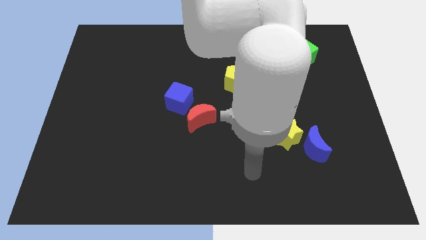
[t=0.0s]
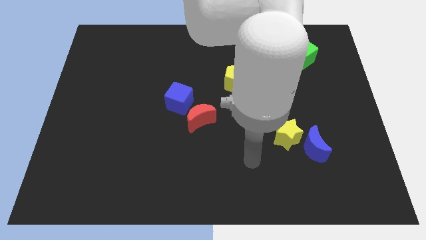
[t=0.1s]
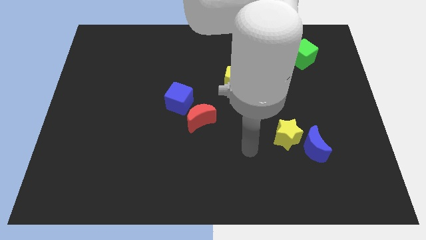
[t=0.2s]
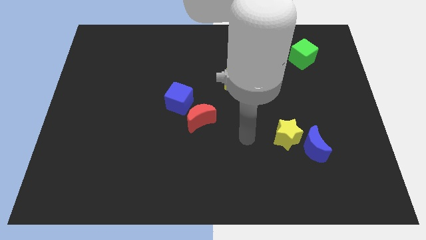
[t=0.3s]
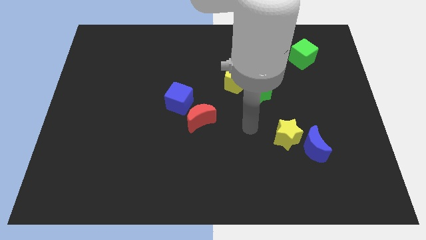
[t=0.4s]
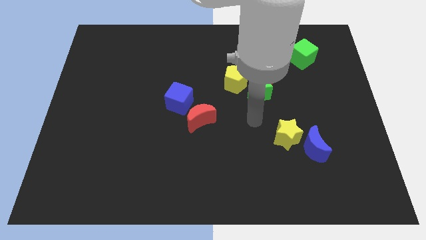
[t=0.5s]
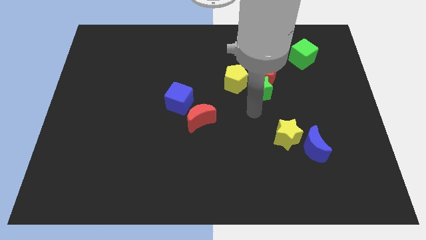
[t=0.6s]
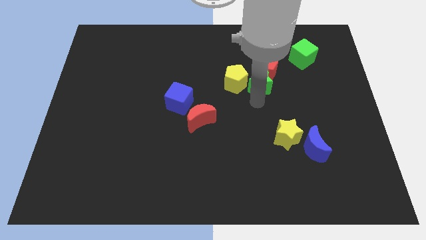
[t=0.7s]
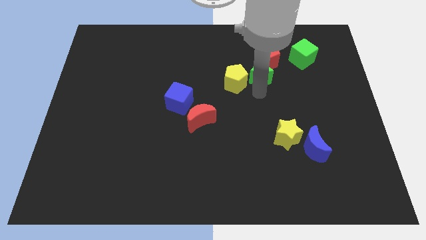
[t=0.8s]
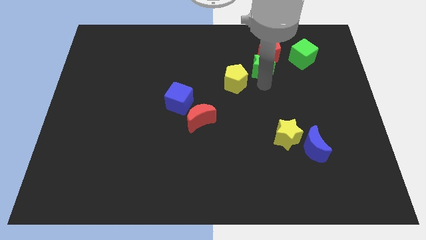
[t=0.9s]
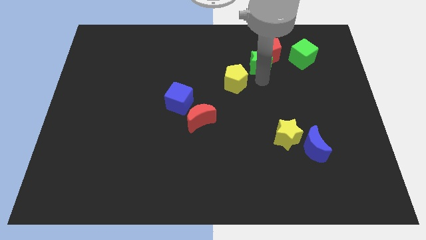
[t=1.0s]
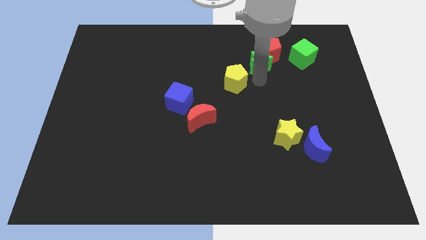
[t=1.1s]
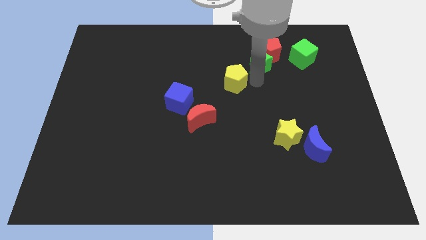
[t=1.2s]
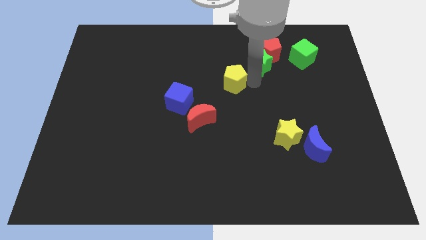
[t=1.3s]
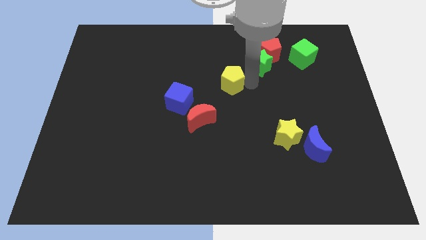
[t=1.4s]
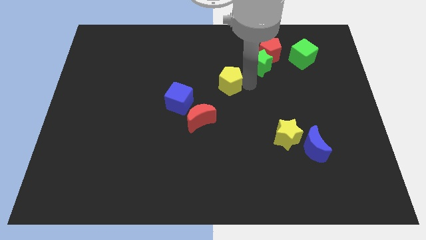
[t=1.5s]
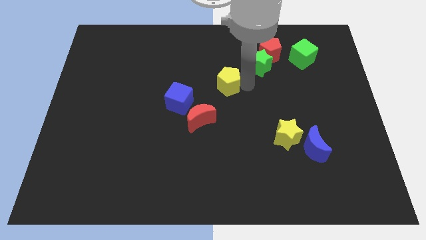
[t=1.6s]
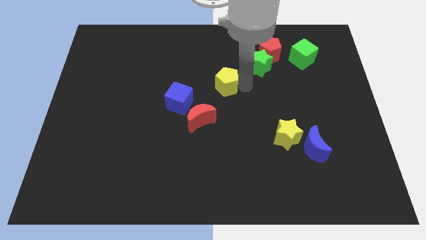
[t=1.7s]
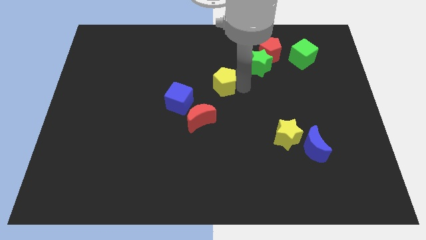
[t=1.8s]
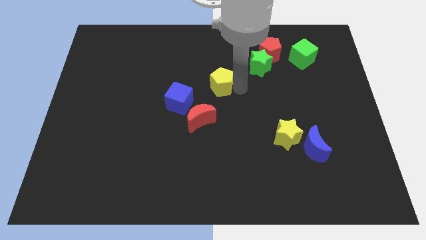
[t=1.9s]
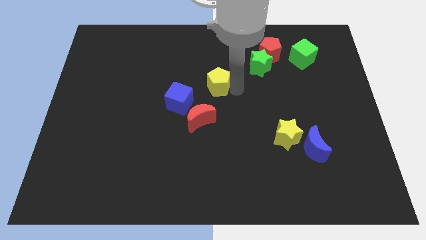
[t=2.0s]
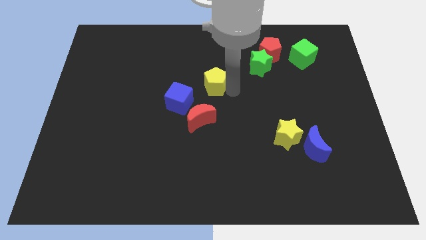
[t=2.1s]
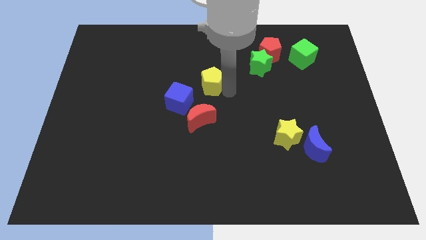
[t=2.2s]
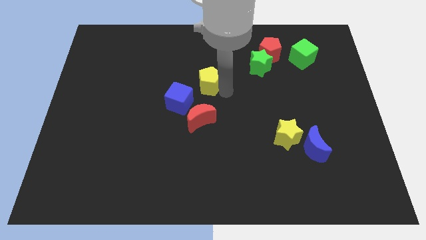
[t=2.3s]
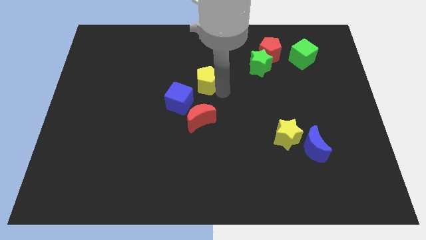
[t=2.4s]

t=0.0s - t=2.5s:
move the yellow pentagon left slightly

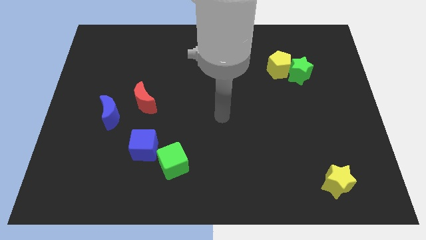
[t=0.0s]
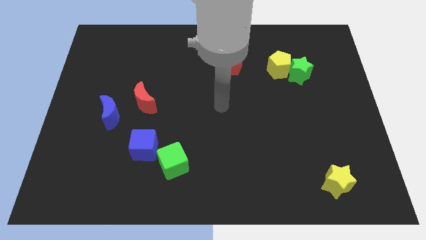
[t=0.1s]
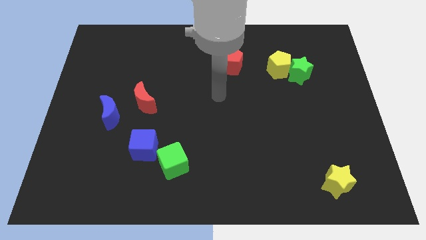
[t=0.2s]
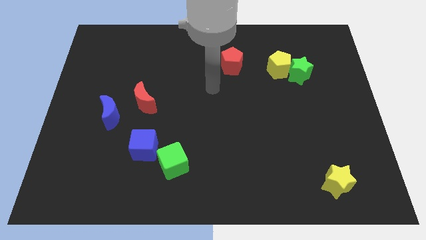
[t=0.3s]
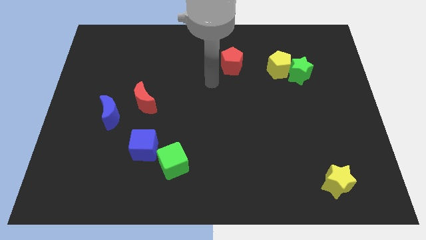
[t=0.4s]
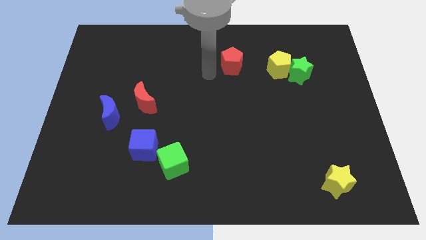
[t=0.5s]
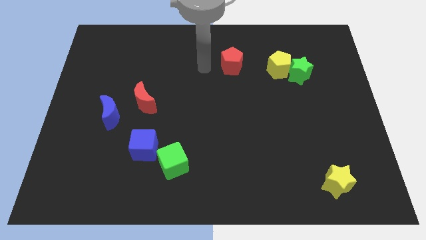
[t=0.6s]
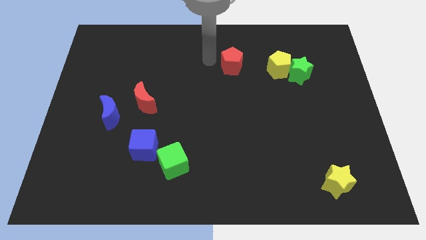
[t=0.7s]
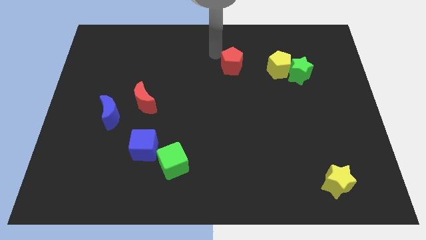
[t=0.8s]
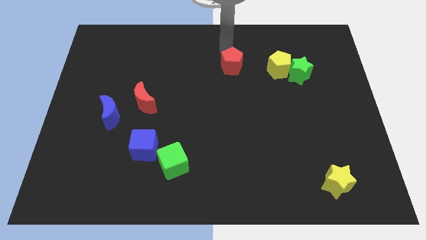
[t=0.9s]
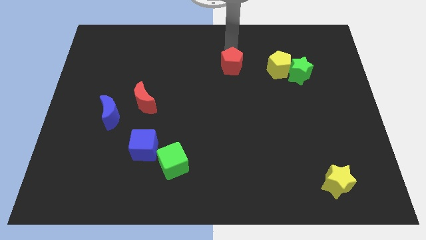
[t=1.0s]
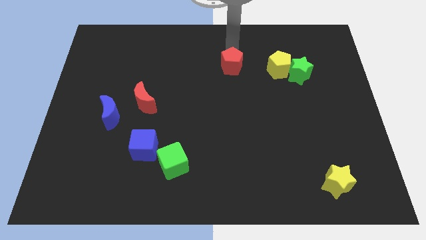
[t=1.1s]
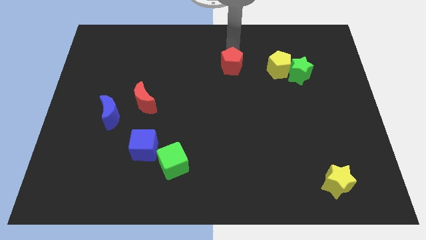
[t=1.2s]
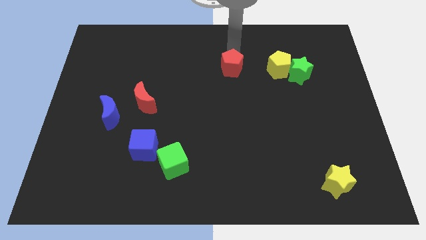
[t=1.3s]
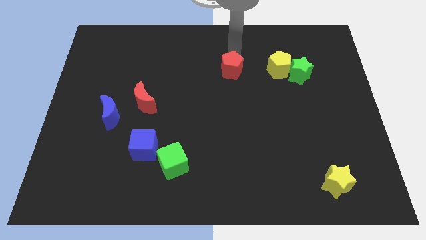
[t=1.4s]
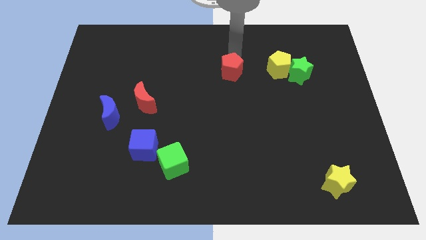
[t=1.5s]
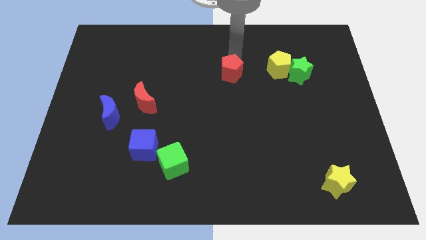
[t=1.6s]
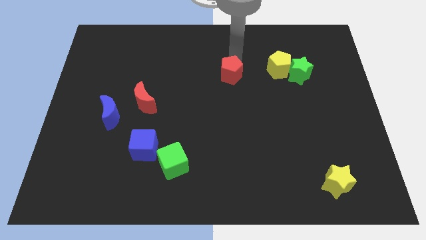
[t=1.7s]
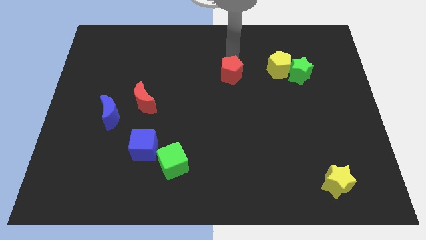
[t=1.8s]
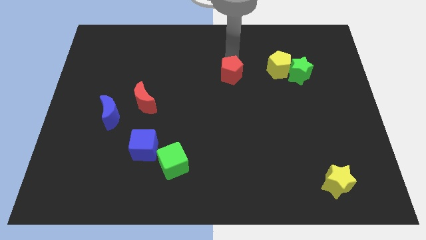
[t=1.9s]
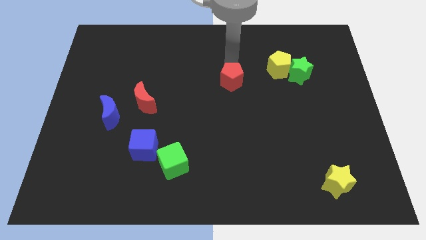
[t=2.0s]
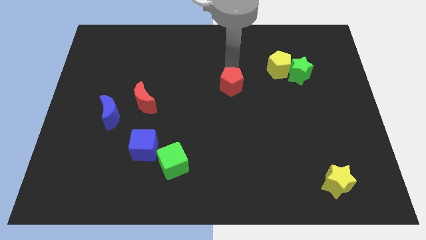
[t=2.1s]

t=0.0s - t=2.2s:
move the red pentagon a little down

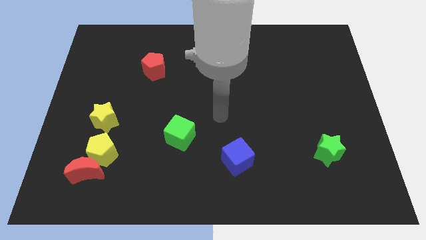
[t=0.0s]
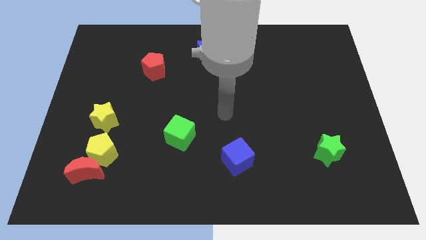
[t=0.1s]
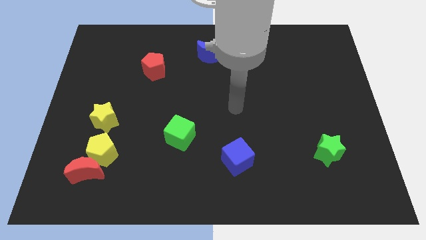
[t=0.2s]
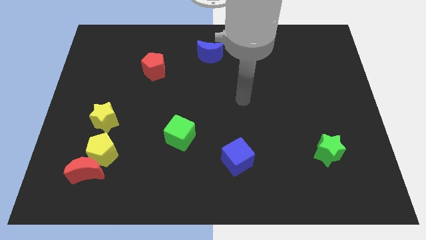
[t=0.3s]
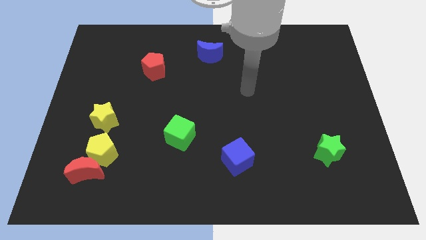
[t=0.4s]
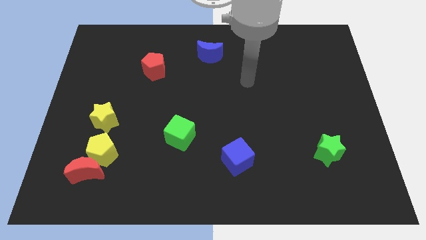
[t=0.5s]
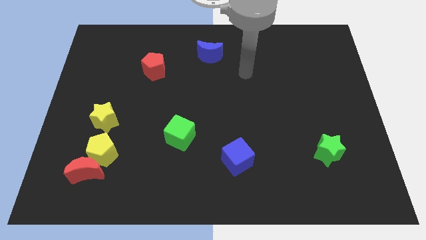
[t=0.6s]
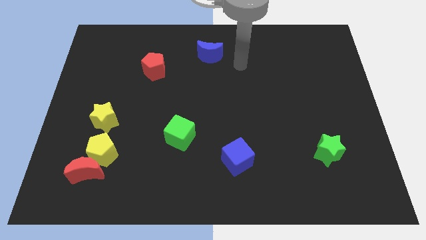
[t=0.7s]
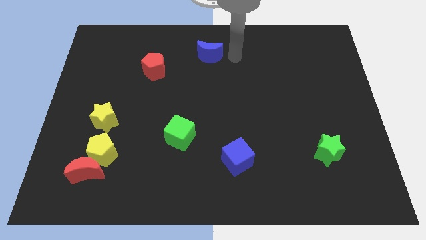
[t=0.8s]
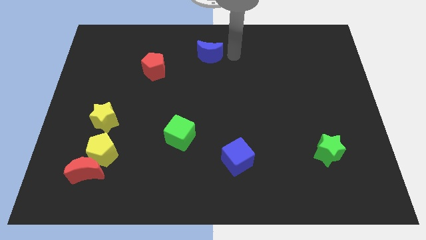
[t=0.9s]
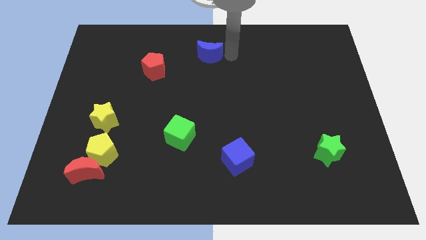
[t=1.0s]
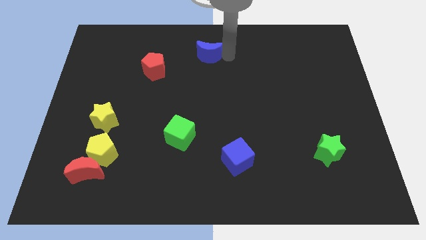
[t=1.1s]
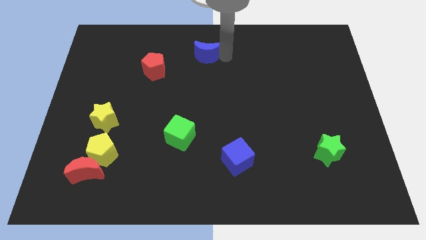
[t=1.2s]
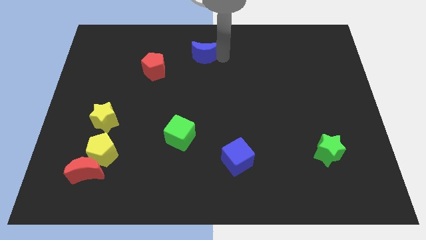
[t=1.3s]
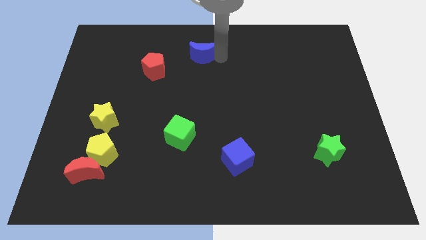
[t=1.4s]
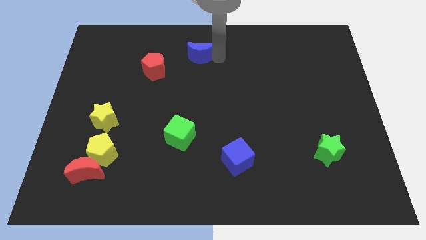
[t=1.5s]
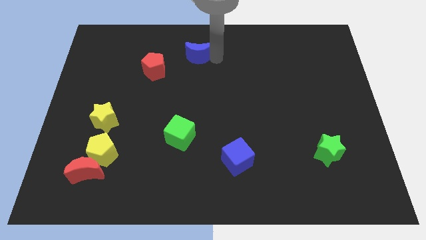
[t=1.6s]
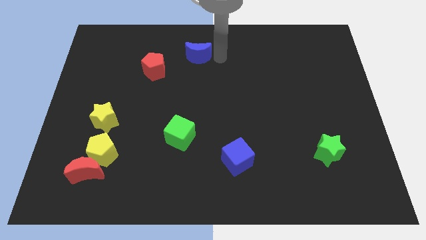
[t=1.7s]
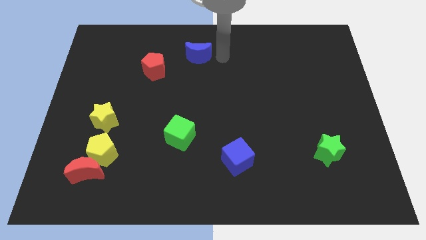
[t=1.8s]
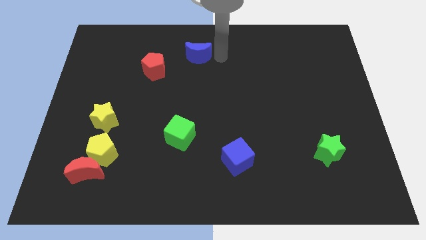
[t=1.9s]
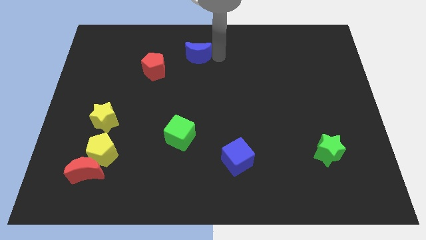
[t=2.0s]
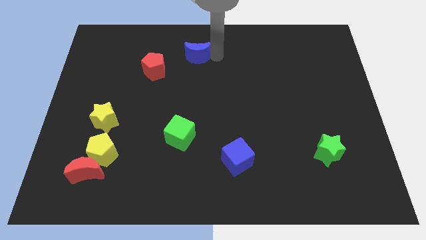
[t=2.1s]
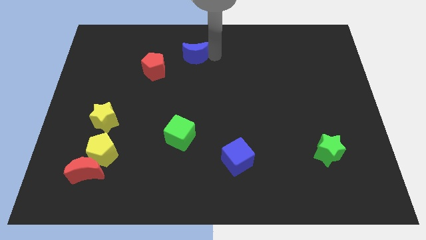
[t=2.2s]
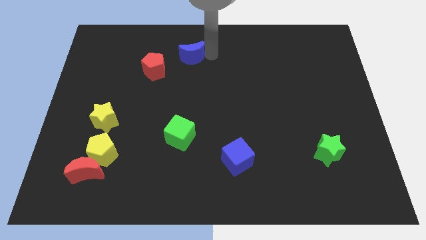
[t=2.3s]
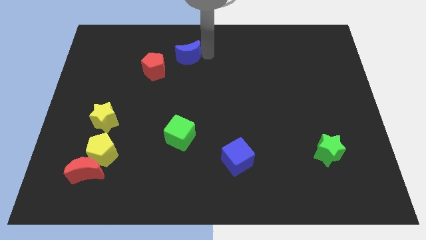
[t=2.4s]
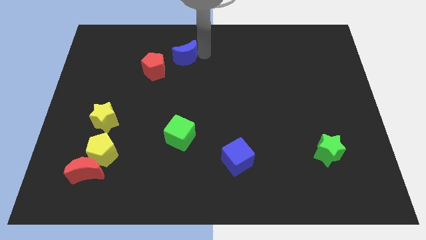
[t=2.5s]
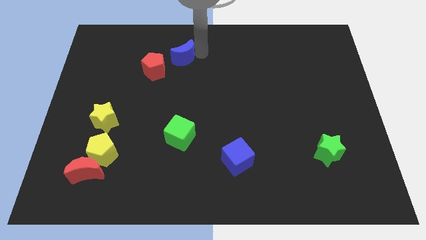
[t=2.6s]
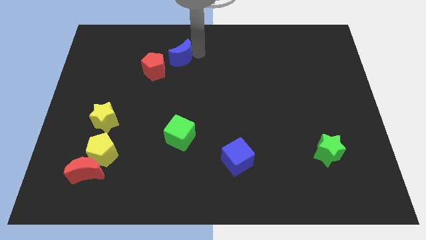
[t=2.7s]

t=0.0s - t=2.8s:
move the blue moon to the left a little

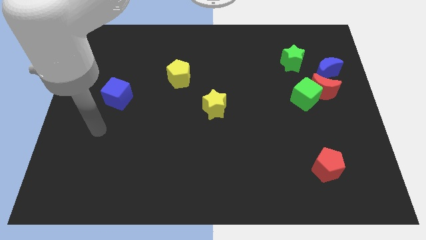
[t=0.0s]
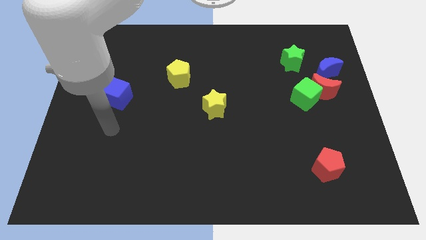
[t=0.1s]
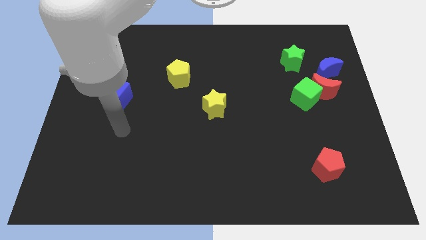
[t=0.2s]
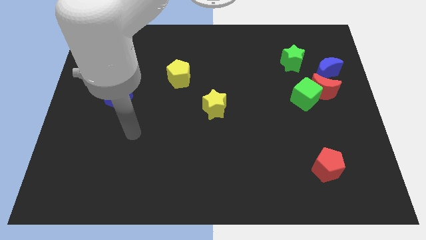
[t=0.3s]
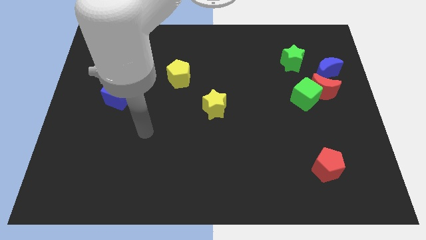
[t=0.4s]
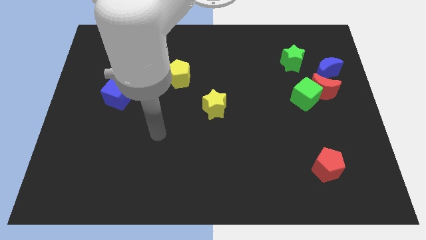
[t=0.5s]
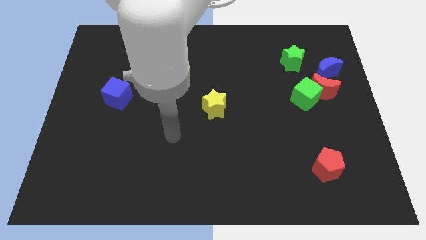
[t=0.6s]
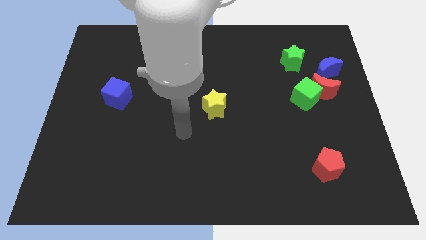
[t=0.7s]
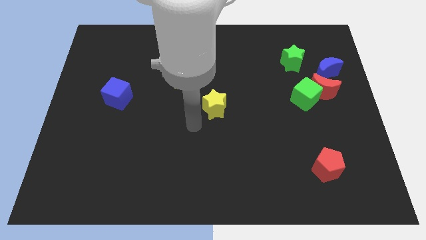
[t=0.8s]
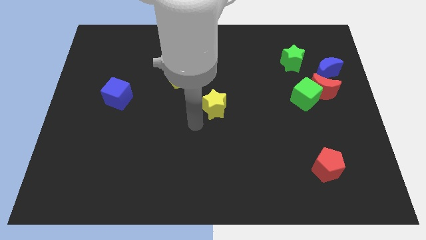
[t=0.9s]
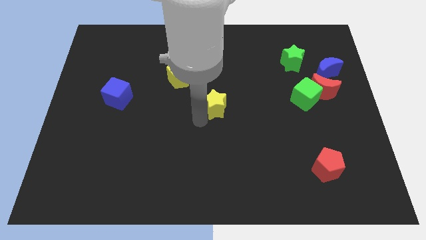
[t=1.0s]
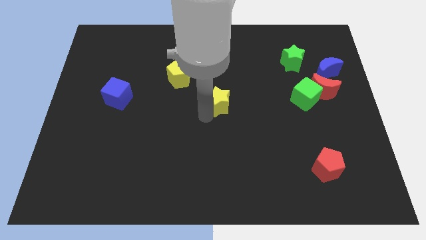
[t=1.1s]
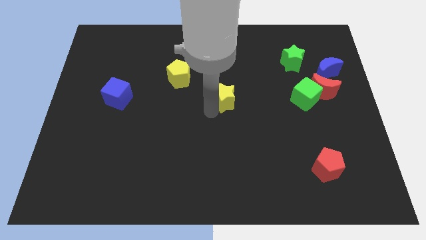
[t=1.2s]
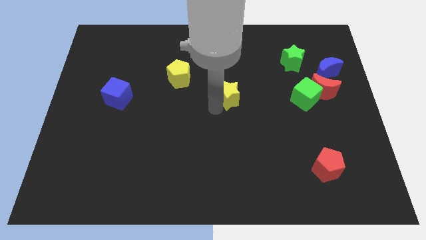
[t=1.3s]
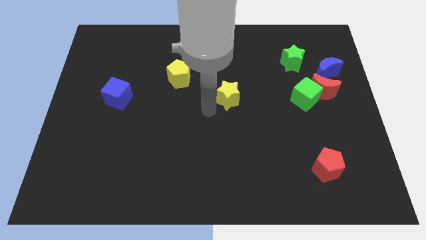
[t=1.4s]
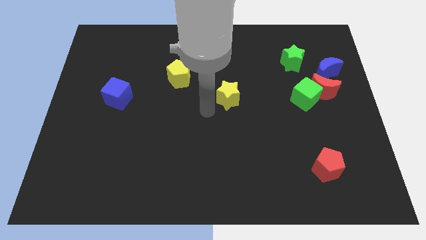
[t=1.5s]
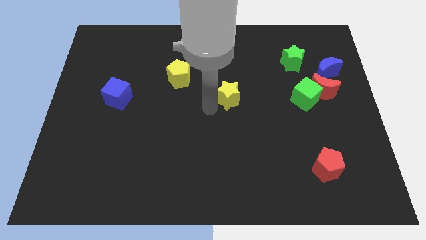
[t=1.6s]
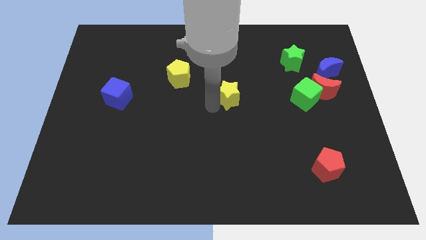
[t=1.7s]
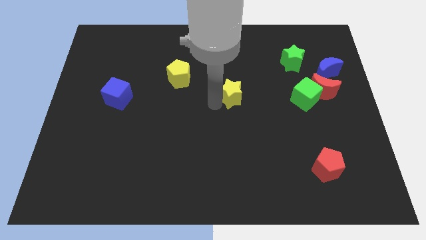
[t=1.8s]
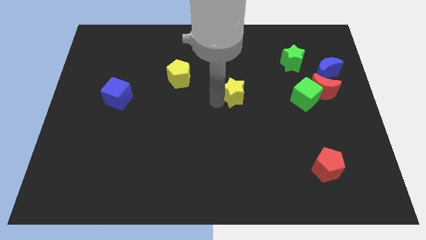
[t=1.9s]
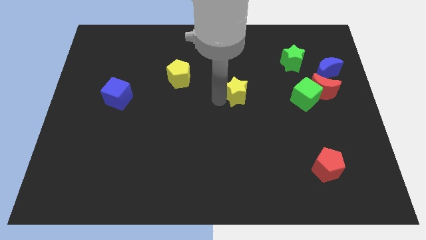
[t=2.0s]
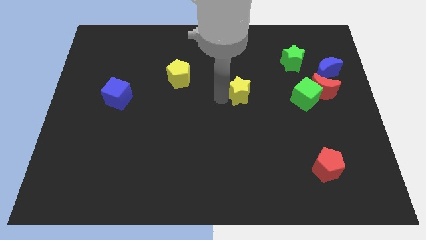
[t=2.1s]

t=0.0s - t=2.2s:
push the yellow star somewhat up and right
